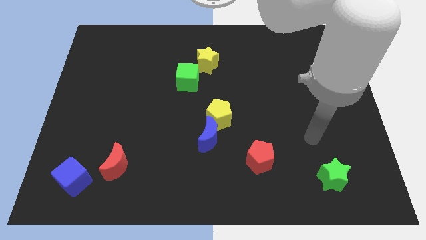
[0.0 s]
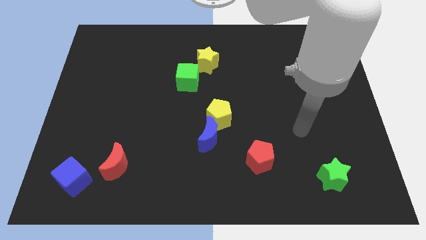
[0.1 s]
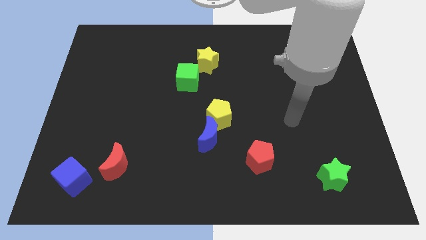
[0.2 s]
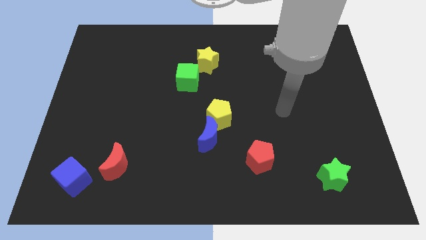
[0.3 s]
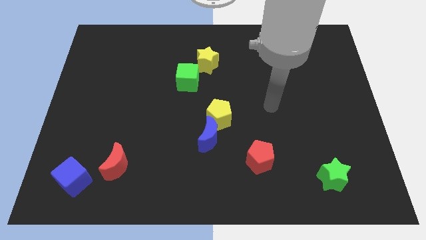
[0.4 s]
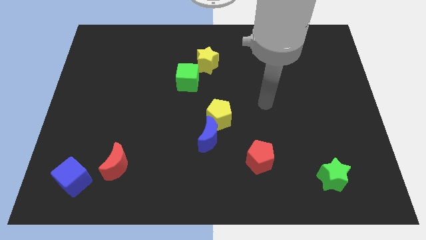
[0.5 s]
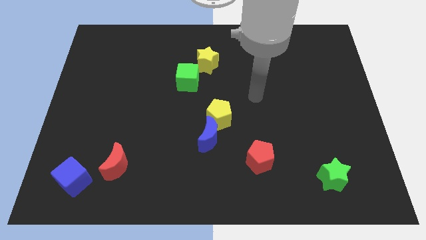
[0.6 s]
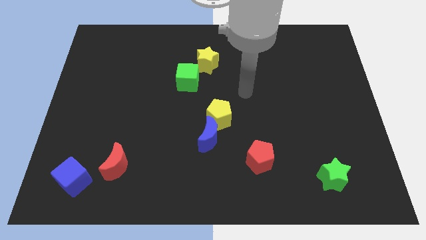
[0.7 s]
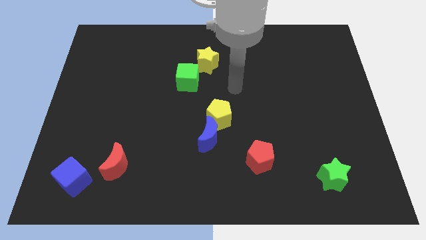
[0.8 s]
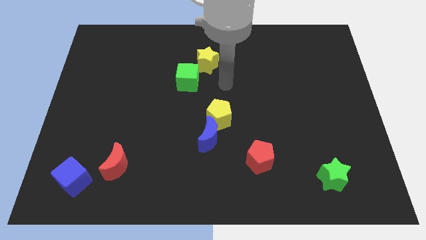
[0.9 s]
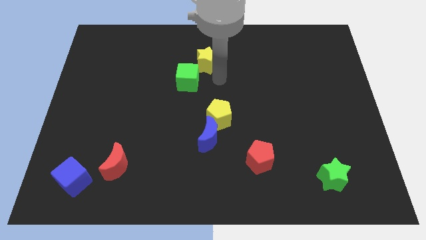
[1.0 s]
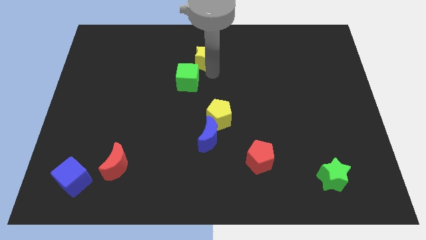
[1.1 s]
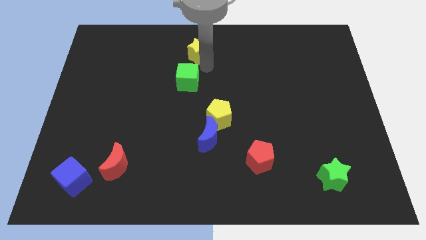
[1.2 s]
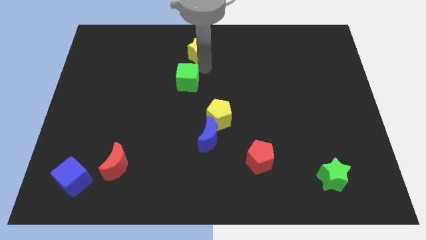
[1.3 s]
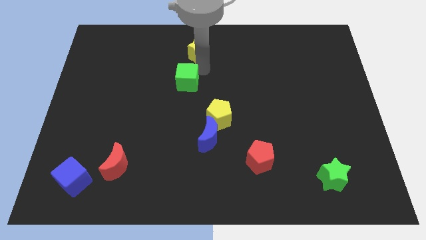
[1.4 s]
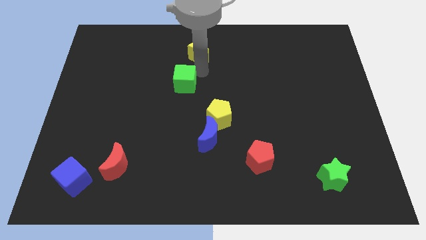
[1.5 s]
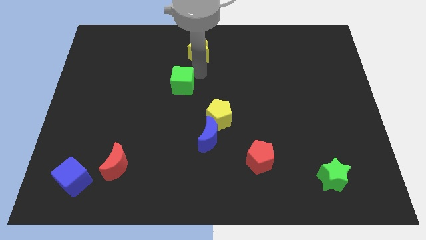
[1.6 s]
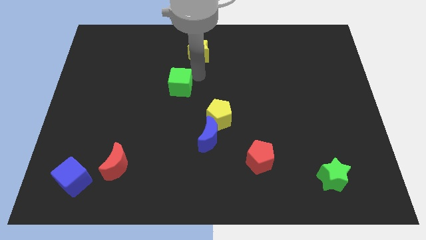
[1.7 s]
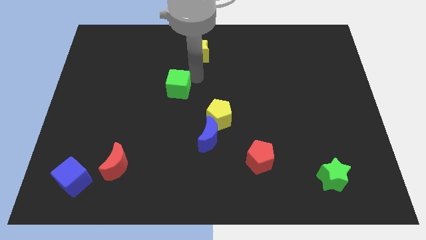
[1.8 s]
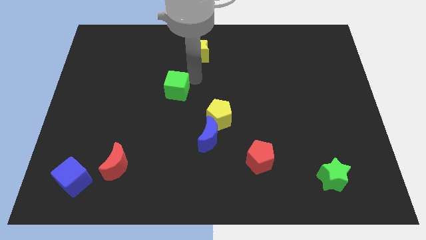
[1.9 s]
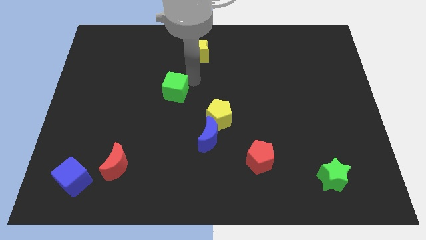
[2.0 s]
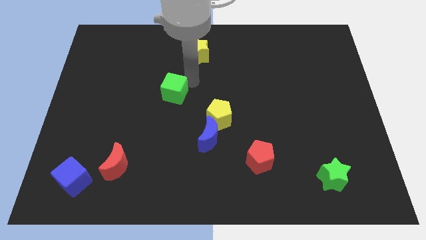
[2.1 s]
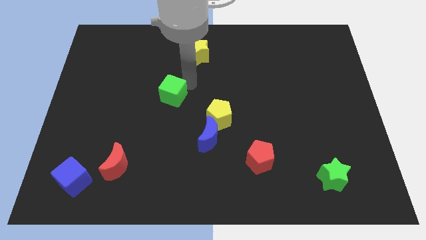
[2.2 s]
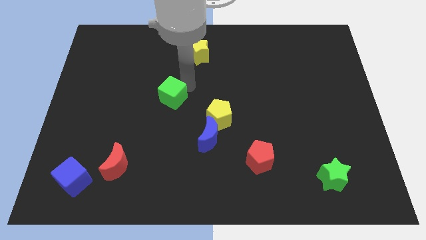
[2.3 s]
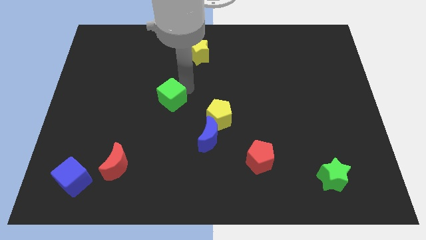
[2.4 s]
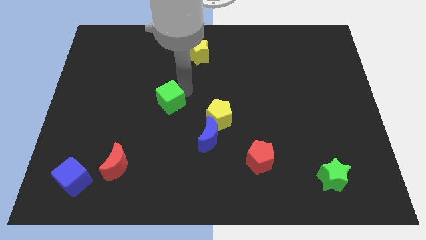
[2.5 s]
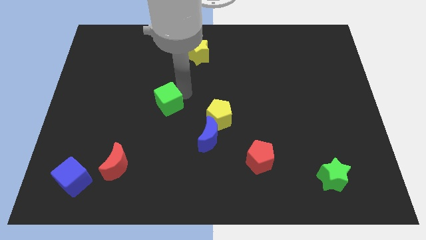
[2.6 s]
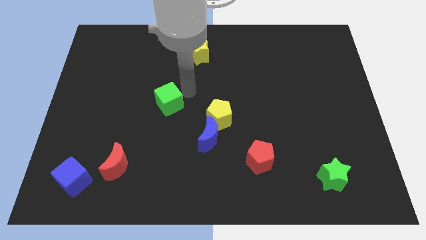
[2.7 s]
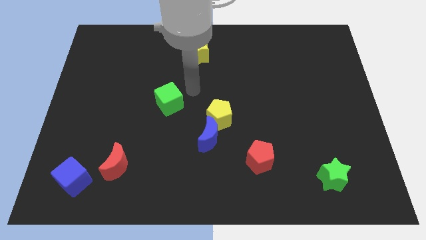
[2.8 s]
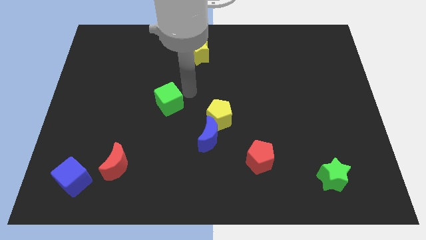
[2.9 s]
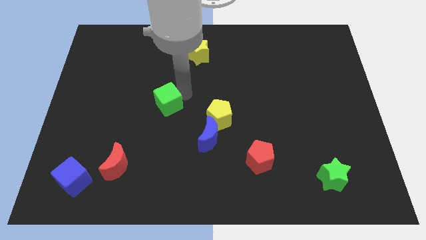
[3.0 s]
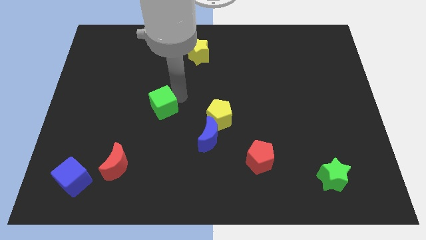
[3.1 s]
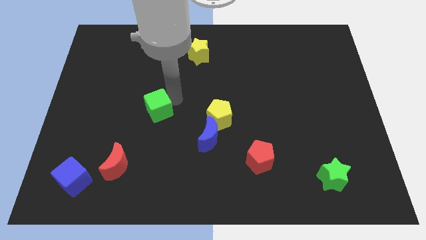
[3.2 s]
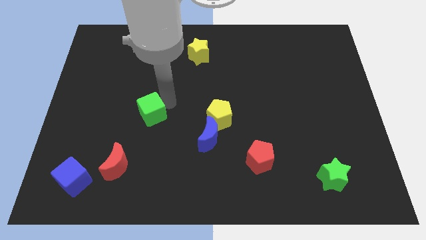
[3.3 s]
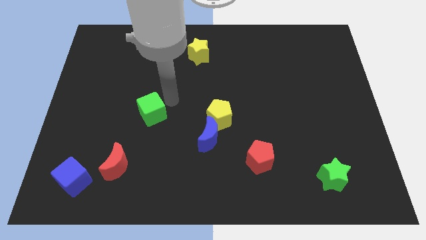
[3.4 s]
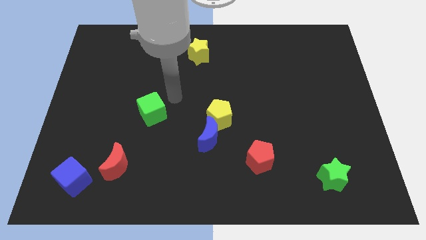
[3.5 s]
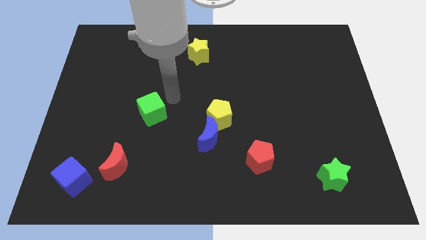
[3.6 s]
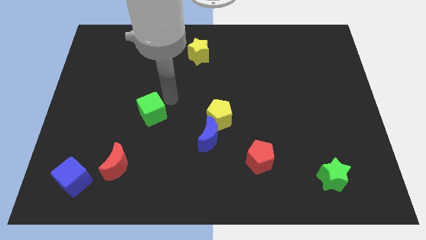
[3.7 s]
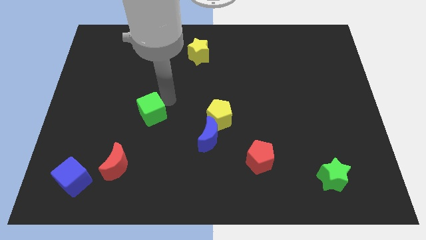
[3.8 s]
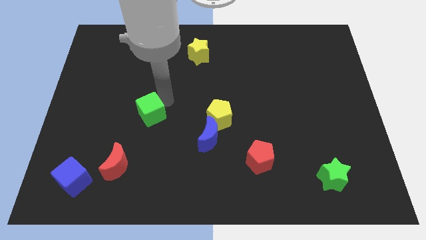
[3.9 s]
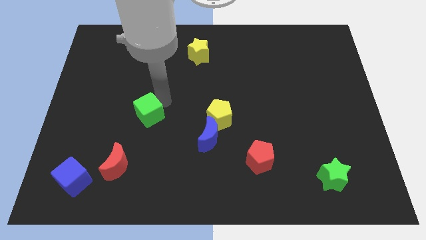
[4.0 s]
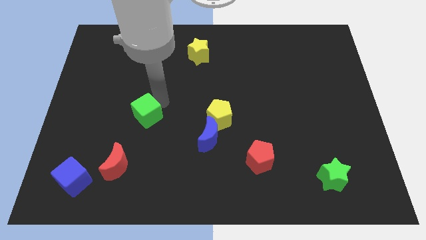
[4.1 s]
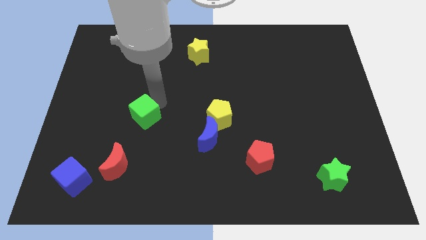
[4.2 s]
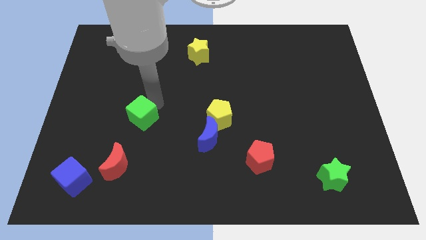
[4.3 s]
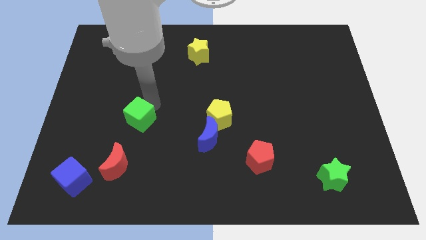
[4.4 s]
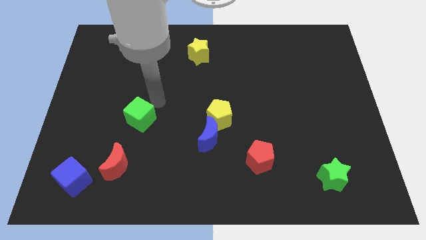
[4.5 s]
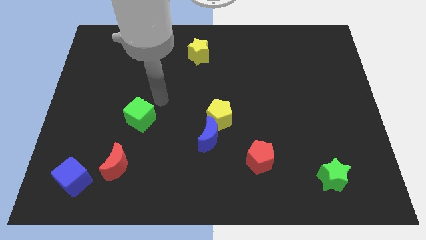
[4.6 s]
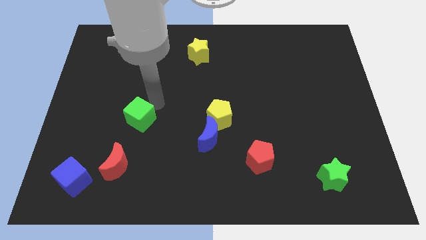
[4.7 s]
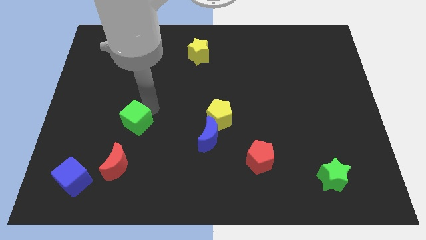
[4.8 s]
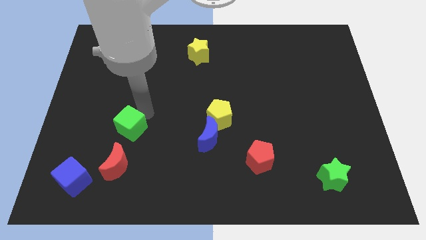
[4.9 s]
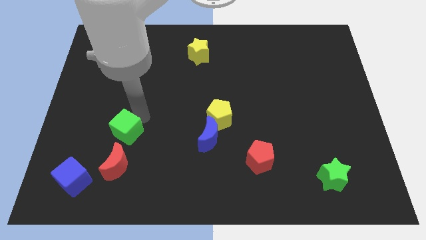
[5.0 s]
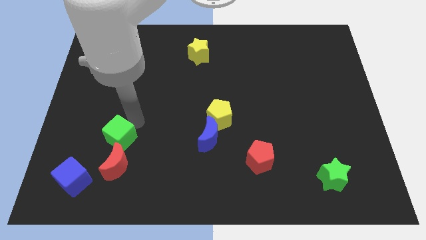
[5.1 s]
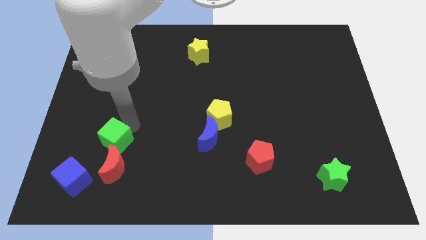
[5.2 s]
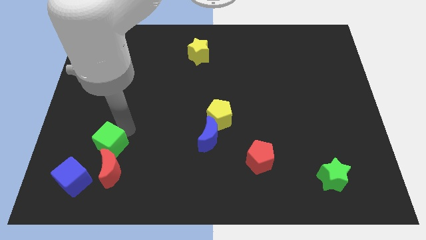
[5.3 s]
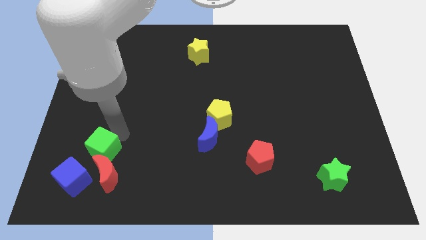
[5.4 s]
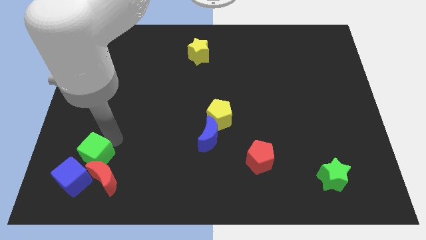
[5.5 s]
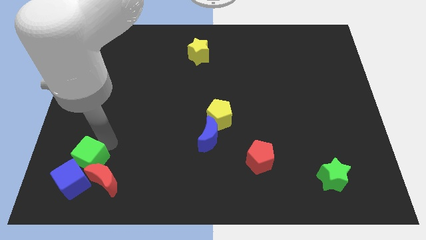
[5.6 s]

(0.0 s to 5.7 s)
push the green cube towards the blue cube

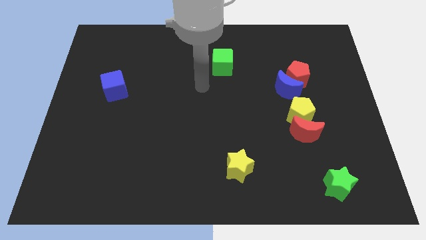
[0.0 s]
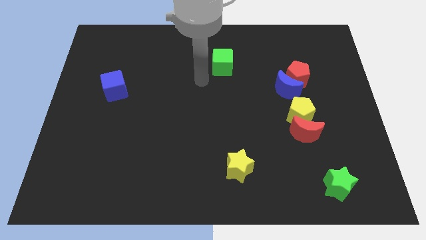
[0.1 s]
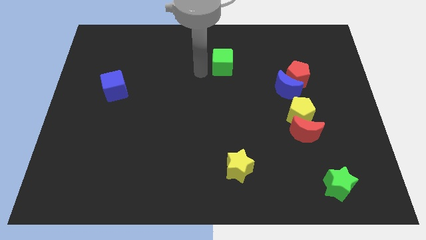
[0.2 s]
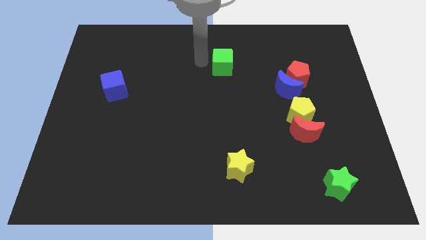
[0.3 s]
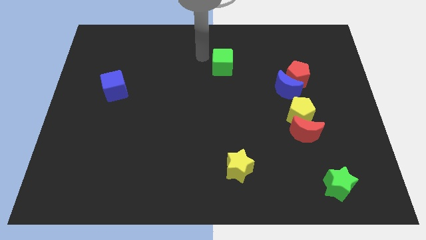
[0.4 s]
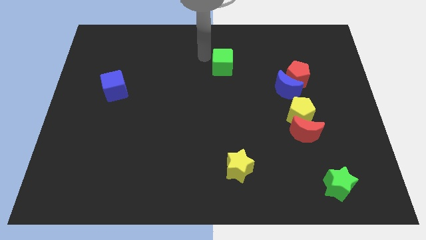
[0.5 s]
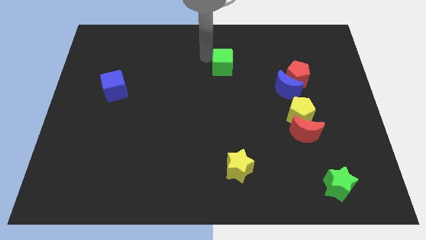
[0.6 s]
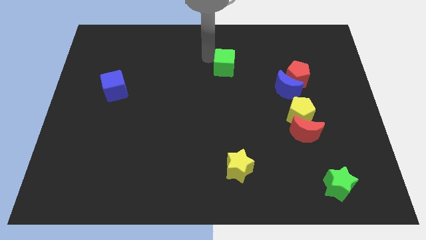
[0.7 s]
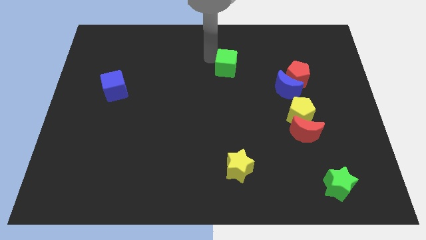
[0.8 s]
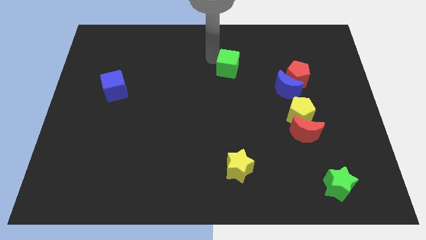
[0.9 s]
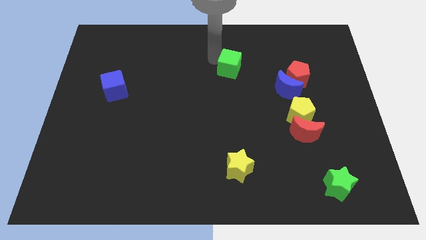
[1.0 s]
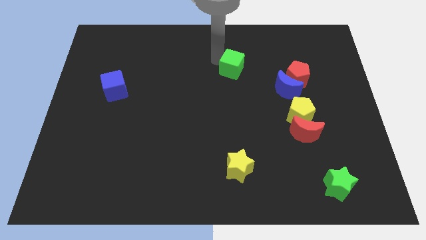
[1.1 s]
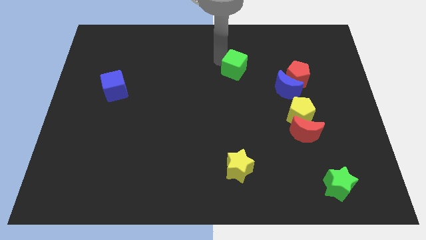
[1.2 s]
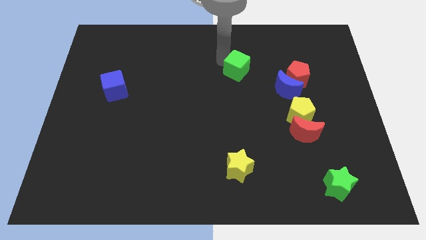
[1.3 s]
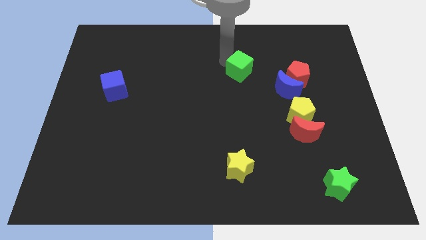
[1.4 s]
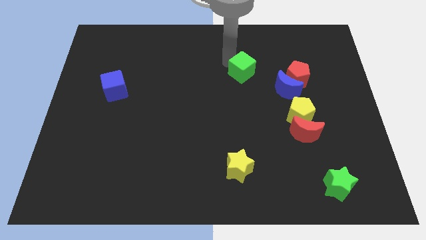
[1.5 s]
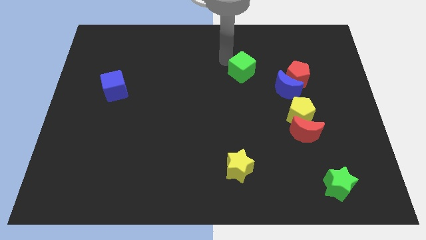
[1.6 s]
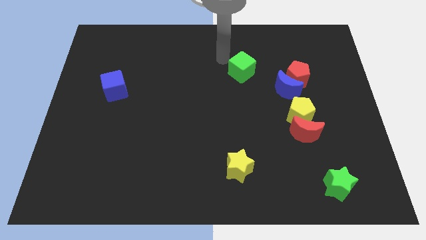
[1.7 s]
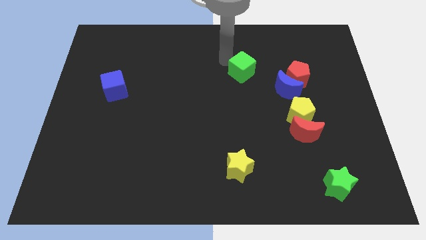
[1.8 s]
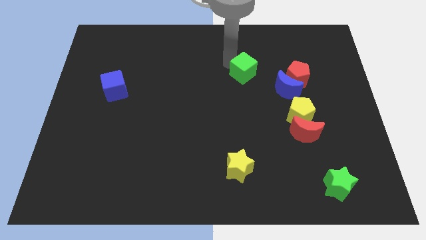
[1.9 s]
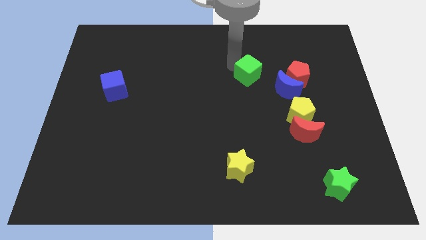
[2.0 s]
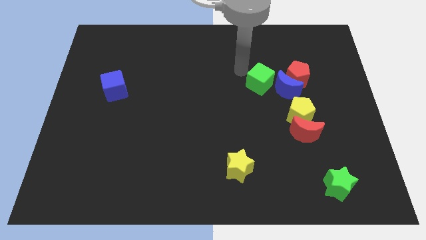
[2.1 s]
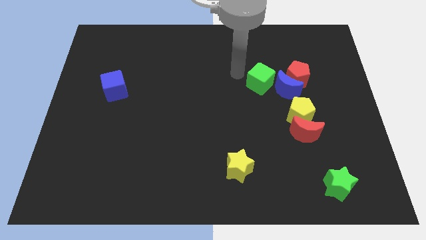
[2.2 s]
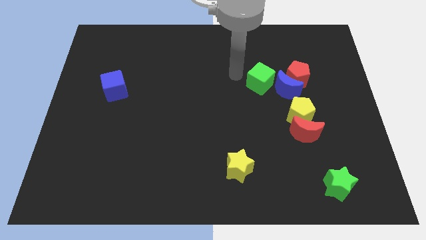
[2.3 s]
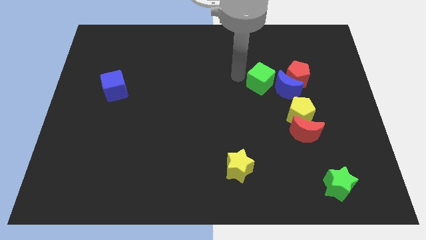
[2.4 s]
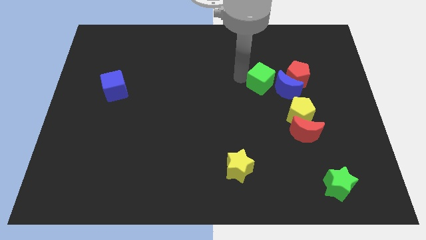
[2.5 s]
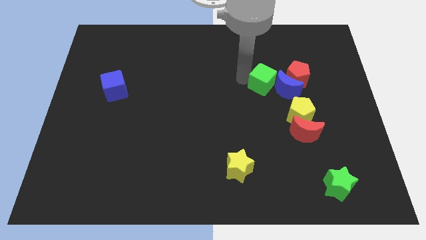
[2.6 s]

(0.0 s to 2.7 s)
move the green cube next to the blue moon
